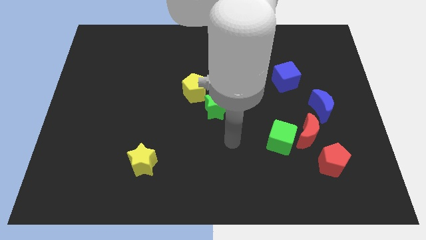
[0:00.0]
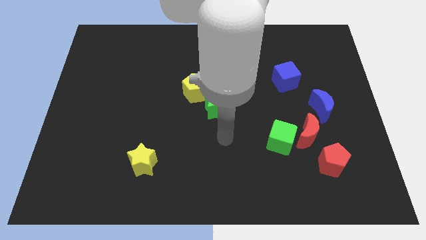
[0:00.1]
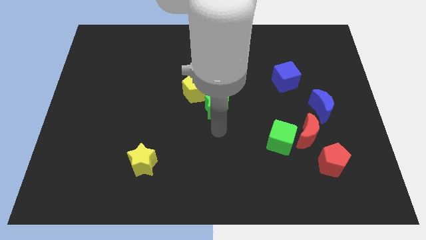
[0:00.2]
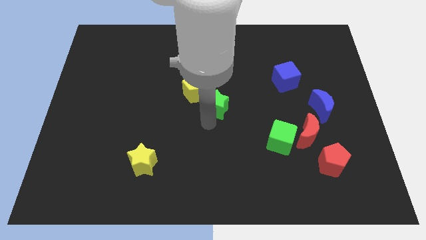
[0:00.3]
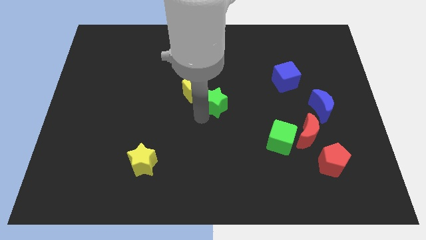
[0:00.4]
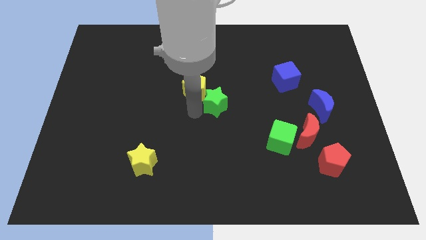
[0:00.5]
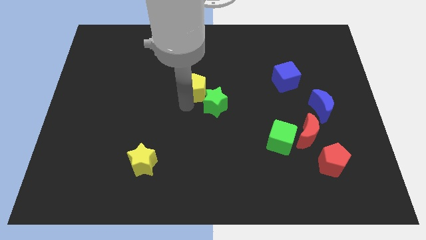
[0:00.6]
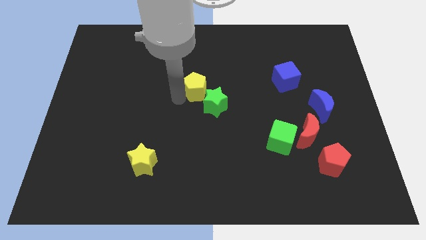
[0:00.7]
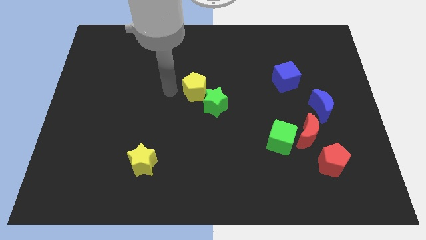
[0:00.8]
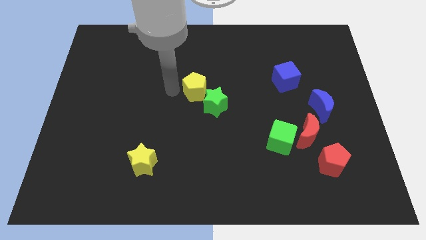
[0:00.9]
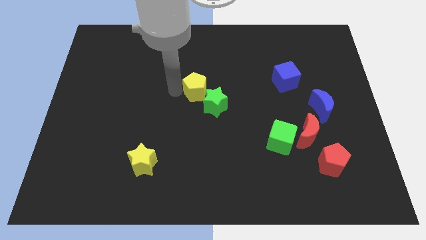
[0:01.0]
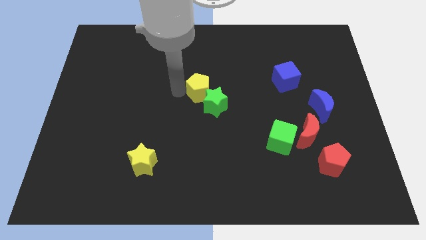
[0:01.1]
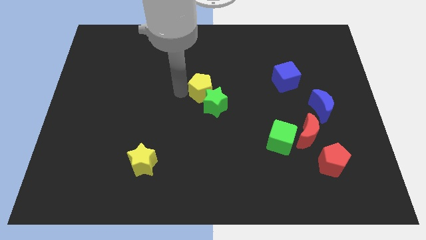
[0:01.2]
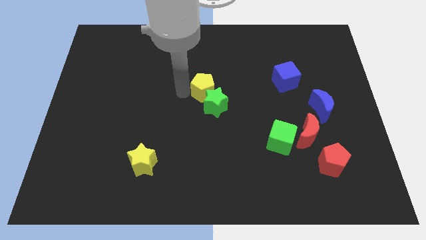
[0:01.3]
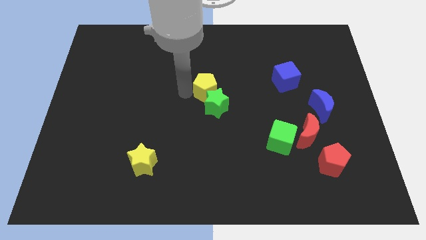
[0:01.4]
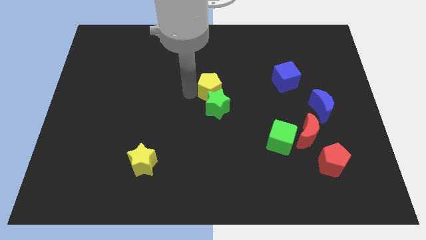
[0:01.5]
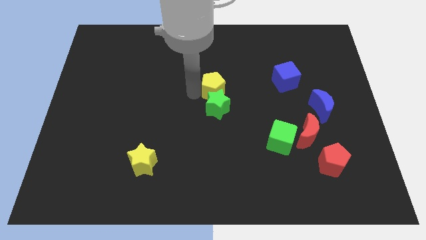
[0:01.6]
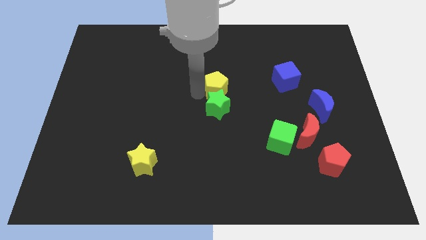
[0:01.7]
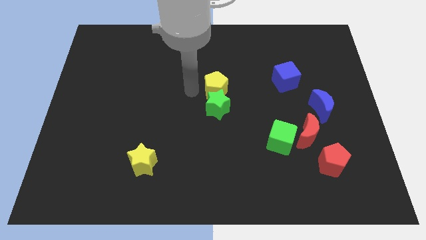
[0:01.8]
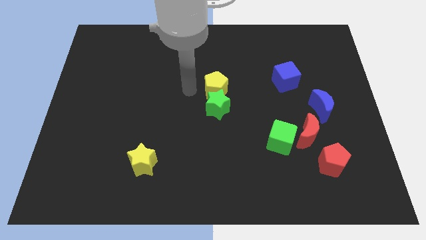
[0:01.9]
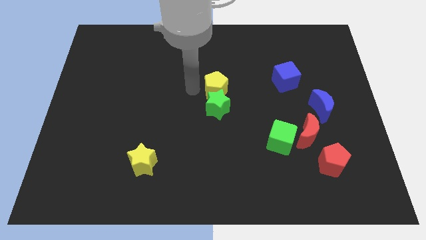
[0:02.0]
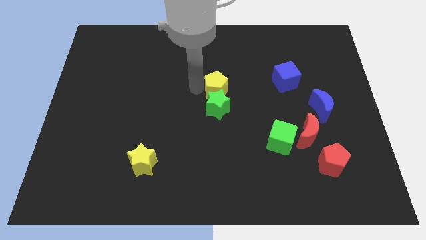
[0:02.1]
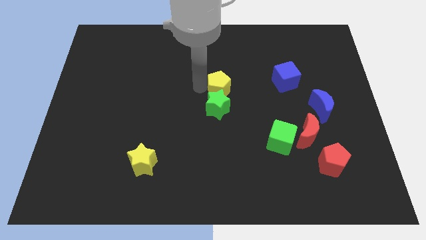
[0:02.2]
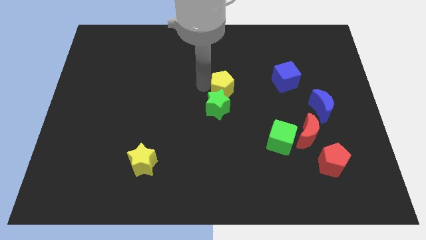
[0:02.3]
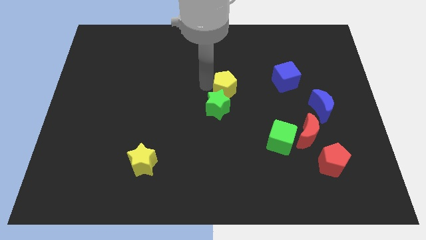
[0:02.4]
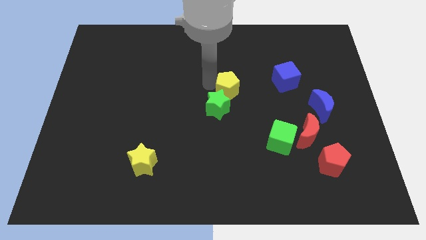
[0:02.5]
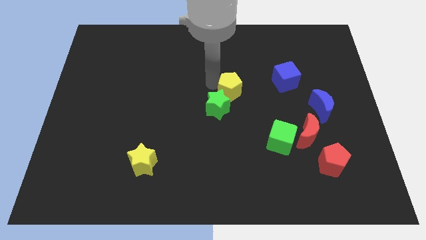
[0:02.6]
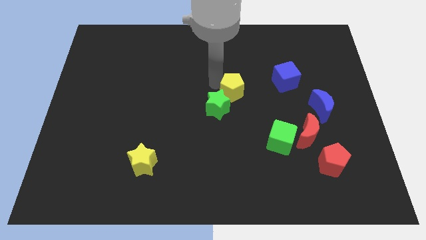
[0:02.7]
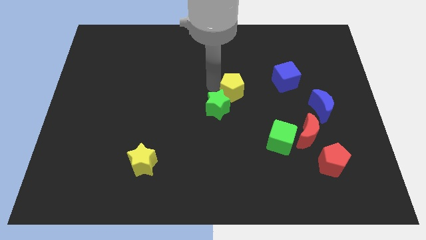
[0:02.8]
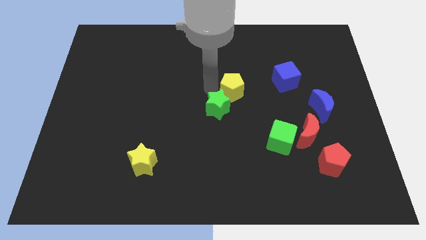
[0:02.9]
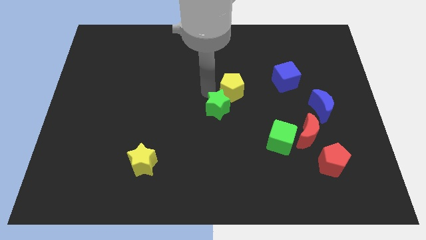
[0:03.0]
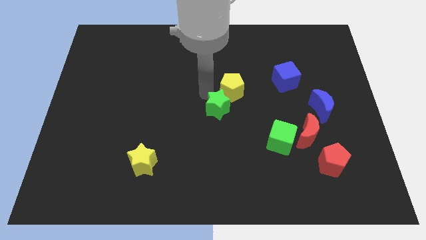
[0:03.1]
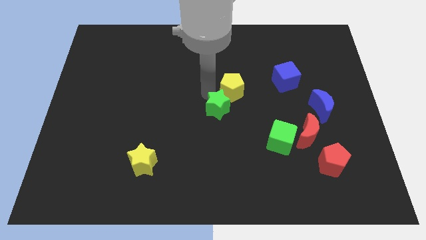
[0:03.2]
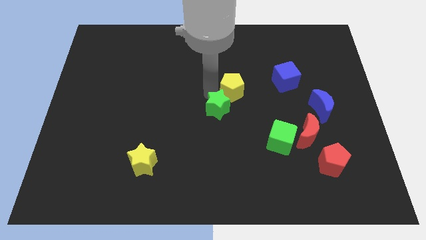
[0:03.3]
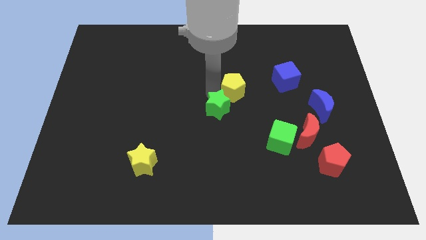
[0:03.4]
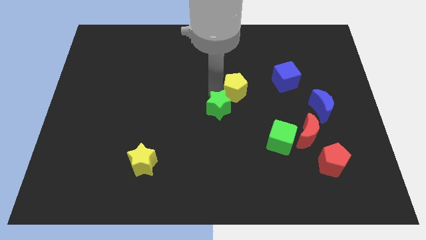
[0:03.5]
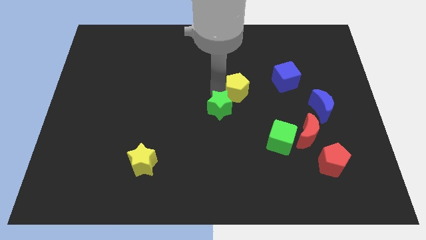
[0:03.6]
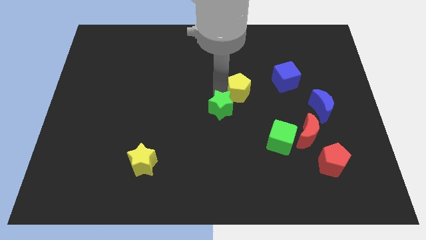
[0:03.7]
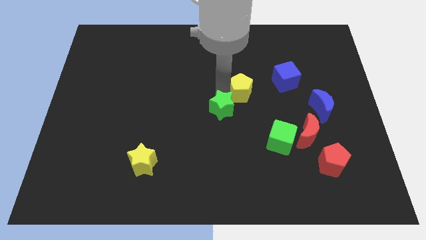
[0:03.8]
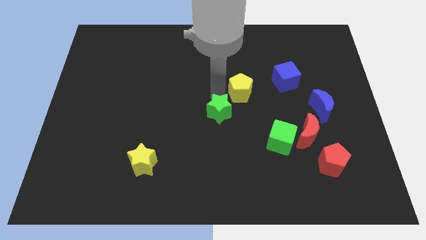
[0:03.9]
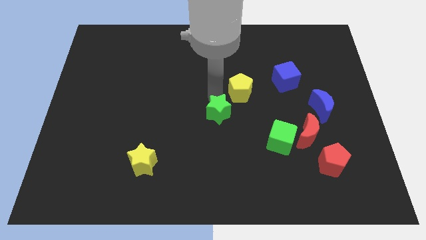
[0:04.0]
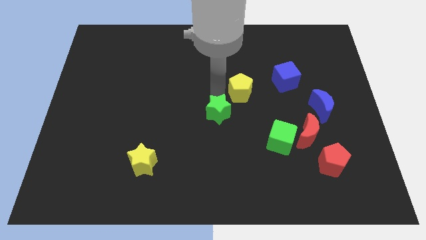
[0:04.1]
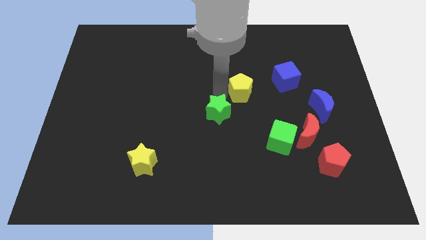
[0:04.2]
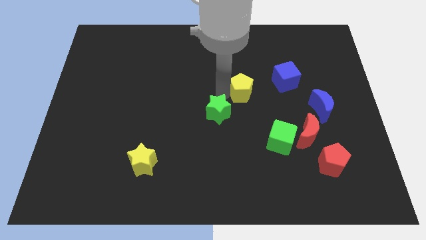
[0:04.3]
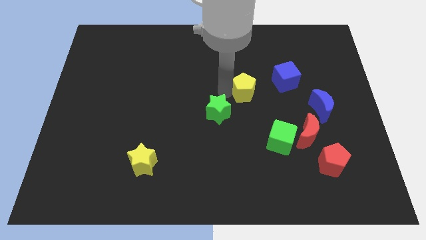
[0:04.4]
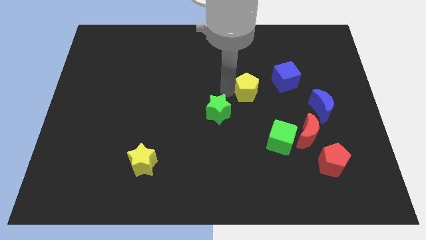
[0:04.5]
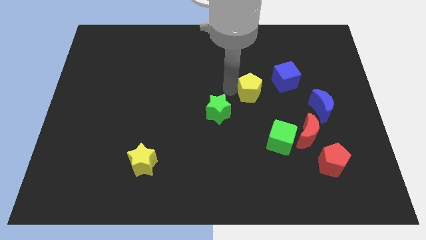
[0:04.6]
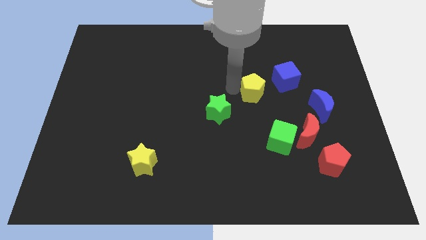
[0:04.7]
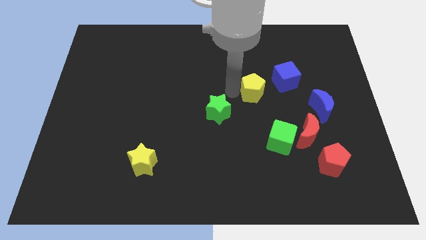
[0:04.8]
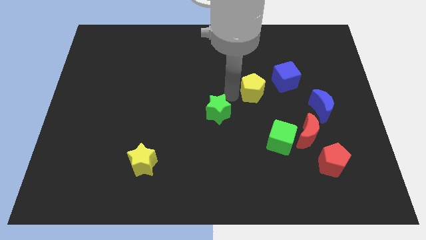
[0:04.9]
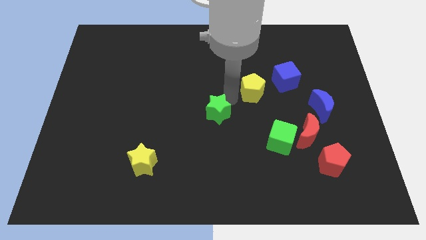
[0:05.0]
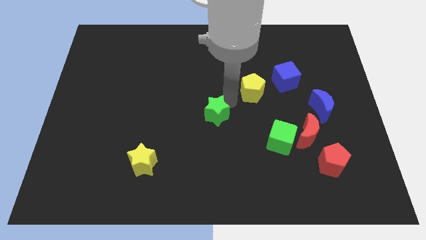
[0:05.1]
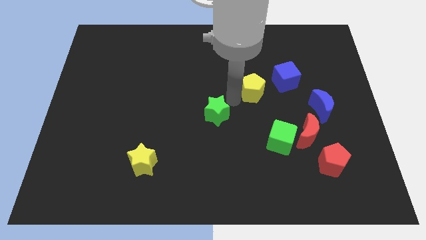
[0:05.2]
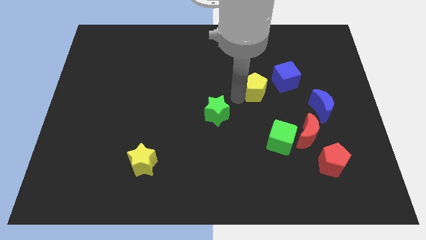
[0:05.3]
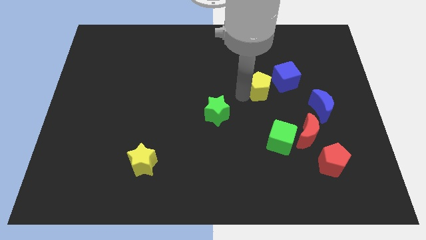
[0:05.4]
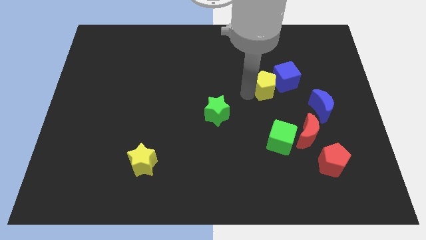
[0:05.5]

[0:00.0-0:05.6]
move the yellow pentagon to the blue cube
